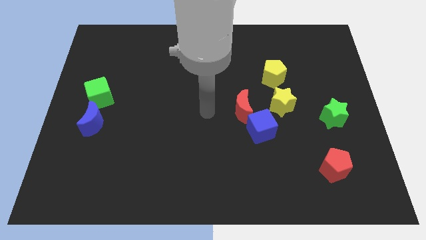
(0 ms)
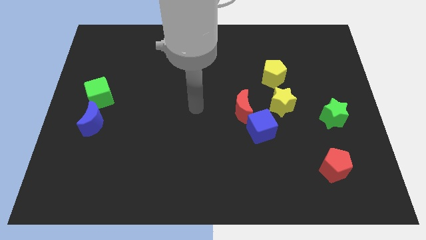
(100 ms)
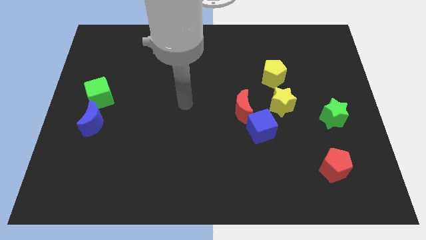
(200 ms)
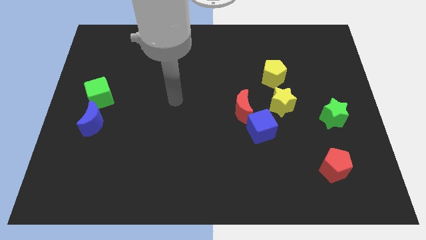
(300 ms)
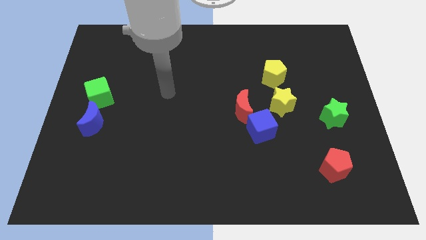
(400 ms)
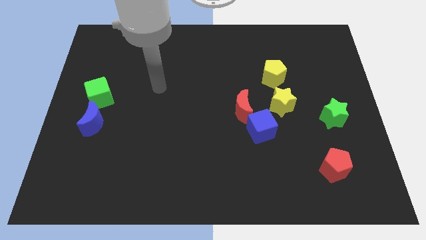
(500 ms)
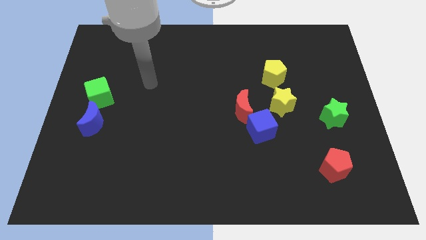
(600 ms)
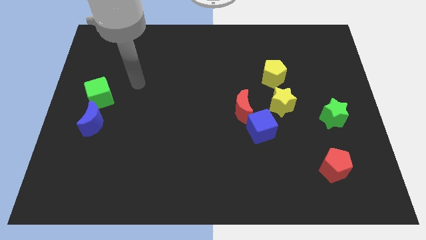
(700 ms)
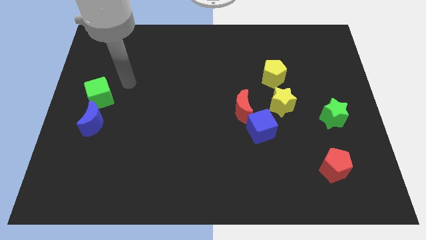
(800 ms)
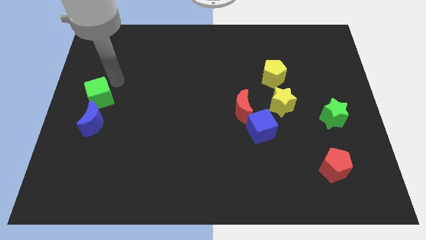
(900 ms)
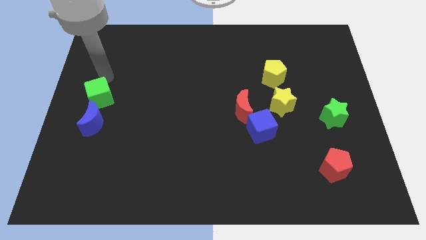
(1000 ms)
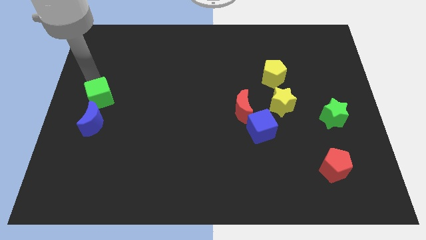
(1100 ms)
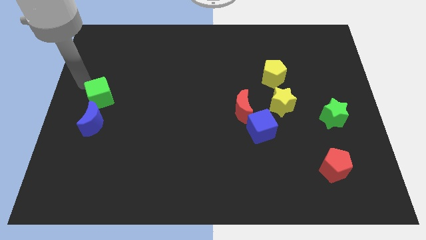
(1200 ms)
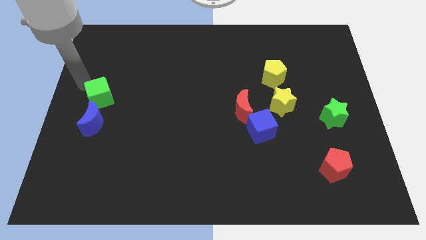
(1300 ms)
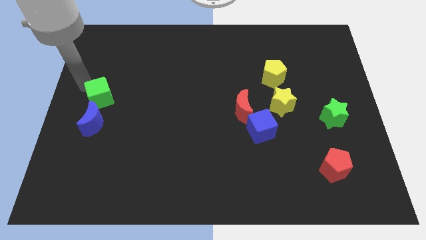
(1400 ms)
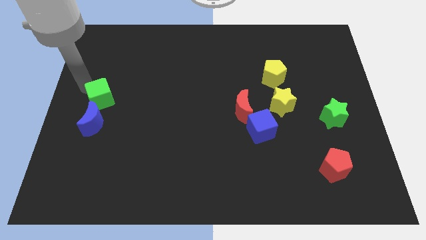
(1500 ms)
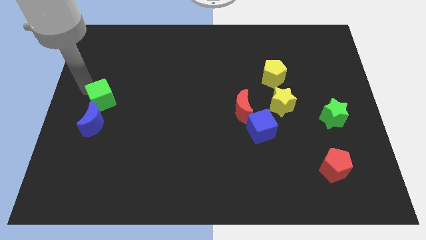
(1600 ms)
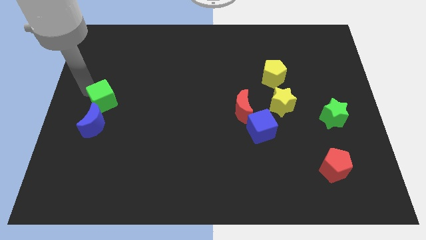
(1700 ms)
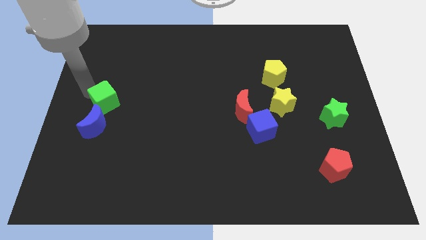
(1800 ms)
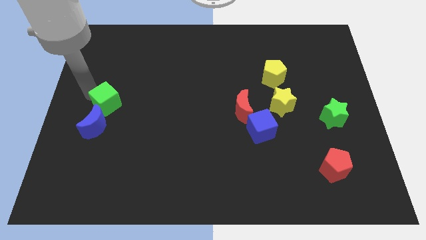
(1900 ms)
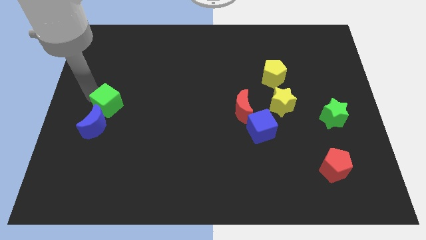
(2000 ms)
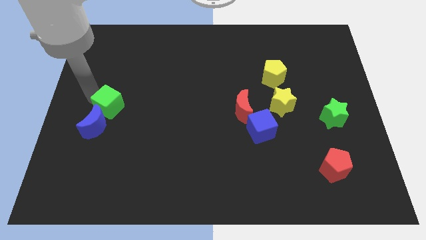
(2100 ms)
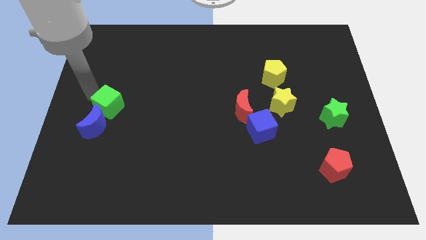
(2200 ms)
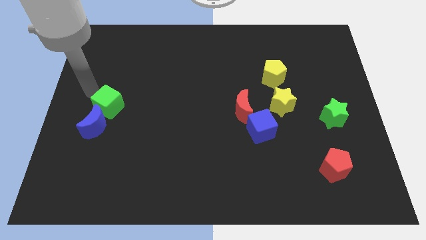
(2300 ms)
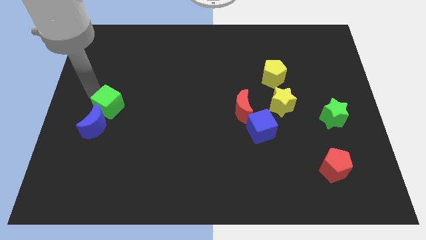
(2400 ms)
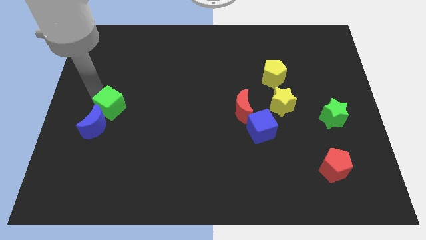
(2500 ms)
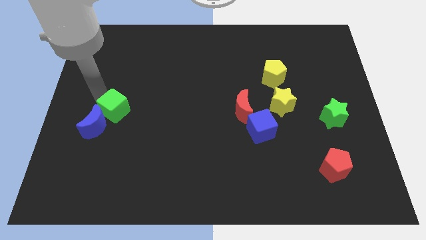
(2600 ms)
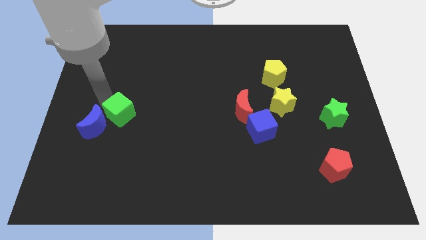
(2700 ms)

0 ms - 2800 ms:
push the green cube down and right diagonally somewhat

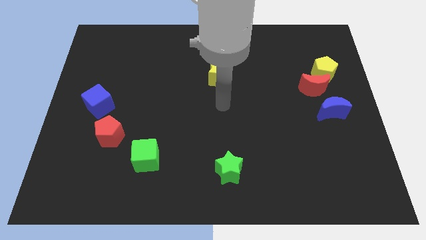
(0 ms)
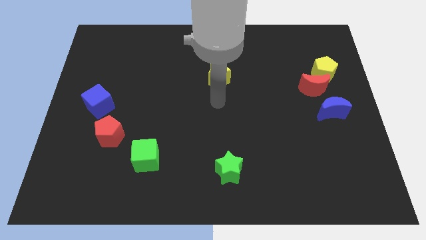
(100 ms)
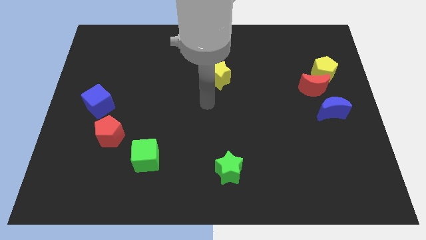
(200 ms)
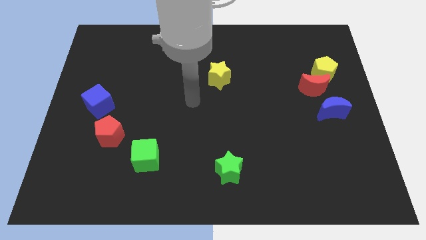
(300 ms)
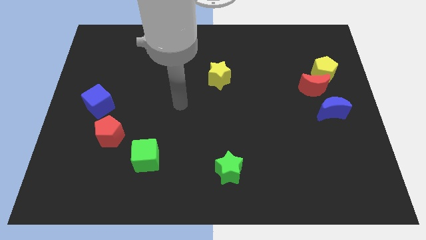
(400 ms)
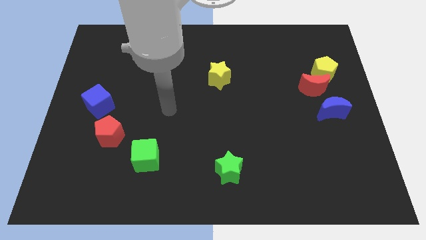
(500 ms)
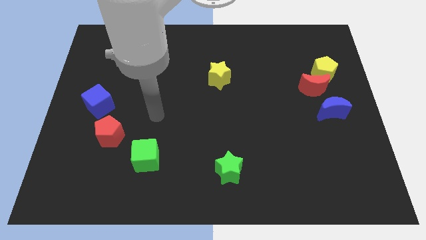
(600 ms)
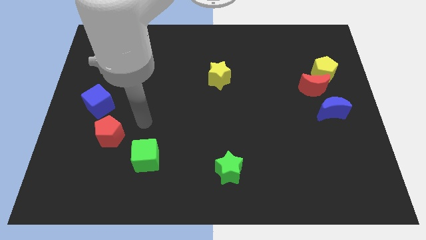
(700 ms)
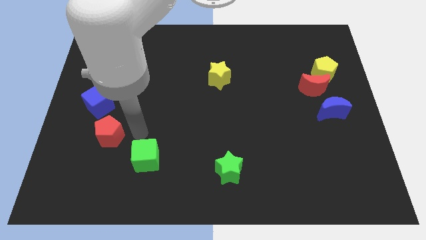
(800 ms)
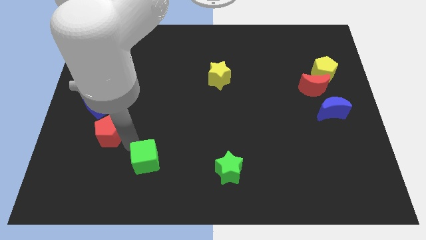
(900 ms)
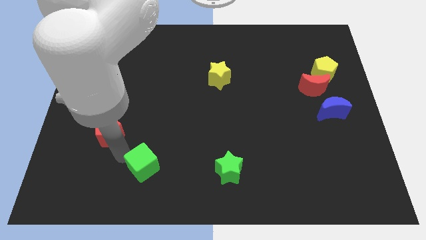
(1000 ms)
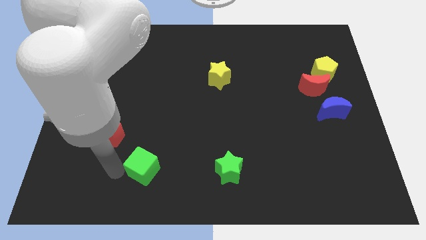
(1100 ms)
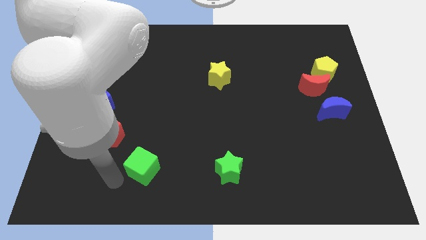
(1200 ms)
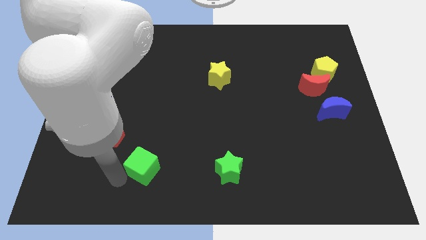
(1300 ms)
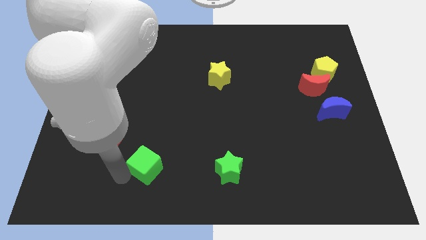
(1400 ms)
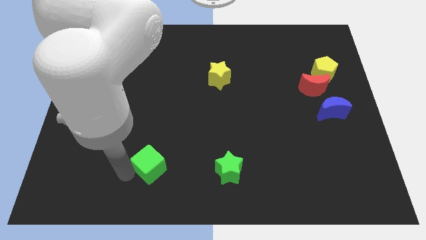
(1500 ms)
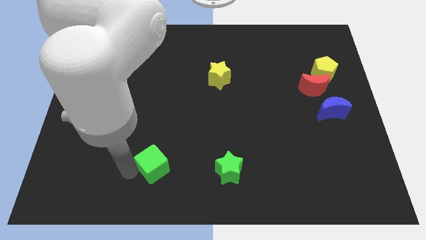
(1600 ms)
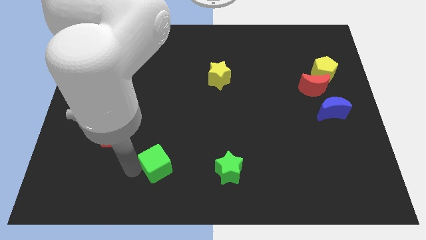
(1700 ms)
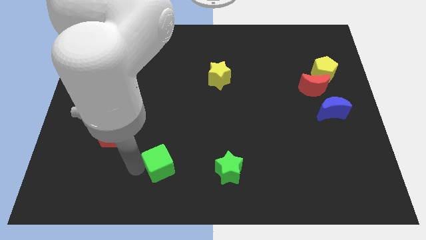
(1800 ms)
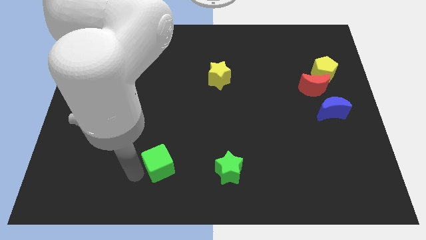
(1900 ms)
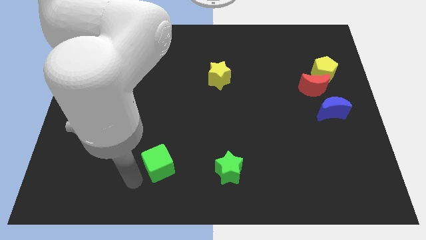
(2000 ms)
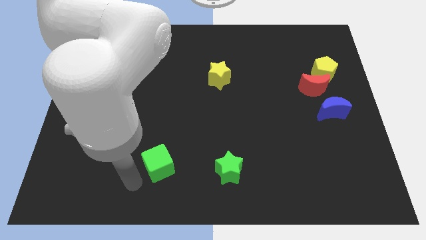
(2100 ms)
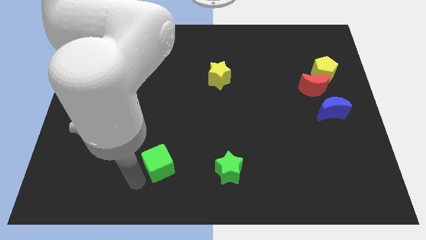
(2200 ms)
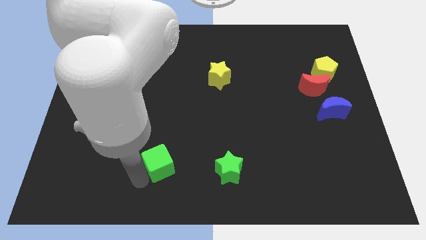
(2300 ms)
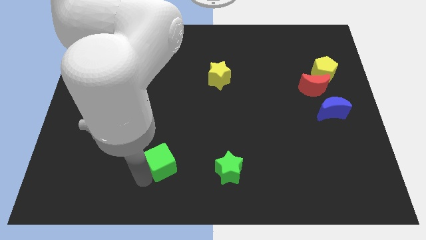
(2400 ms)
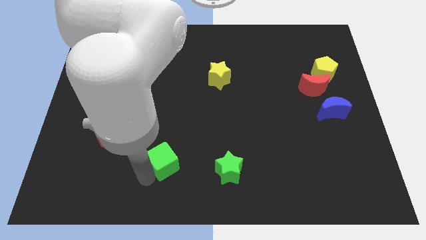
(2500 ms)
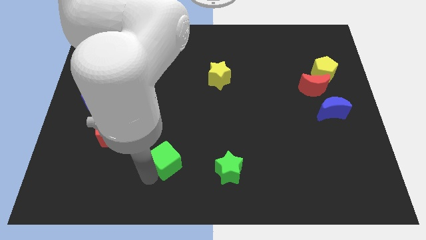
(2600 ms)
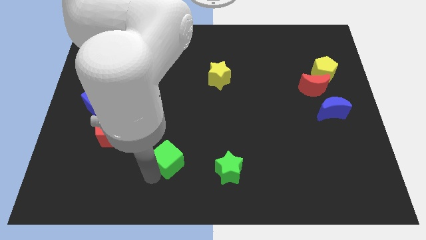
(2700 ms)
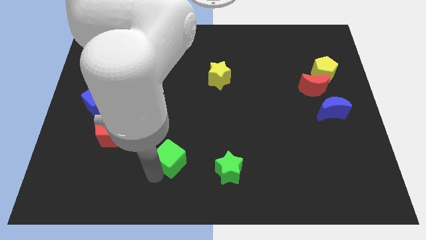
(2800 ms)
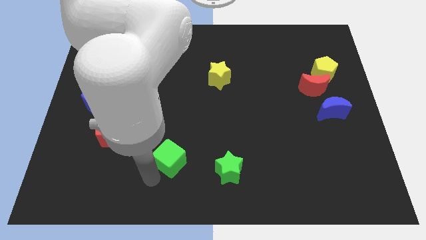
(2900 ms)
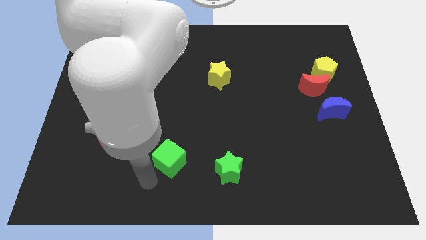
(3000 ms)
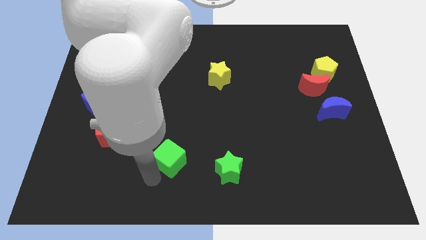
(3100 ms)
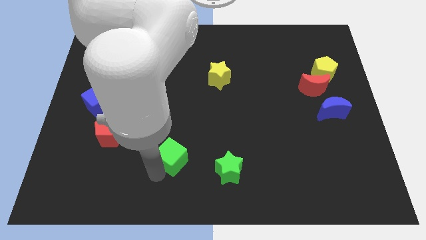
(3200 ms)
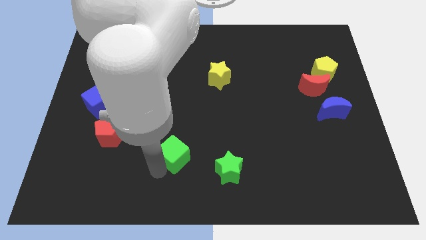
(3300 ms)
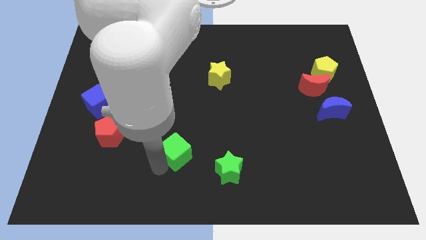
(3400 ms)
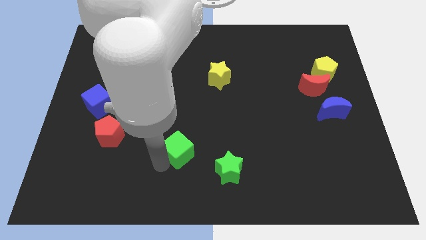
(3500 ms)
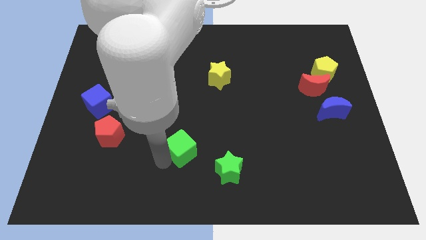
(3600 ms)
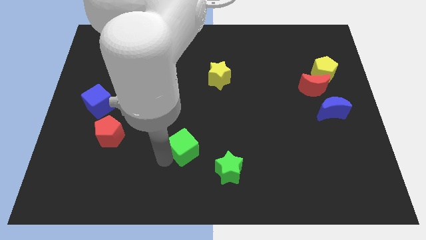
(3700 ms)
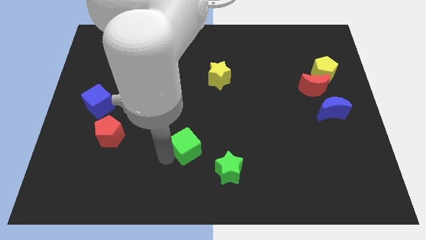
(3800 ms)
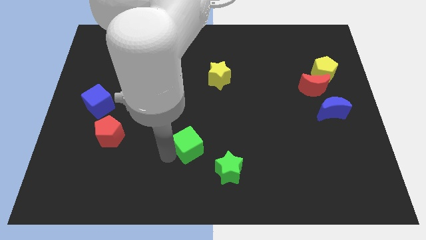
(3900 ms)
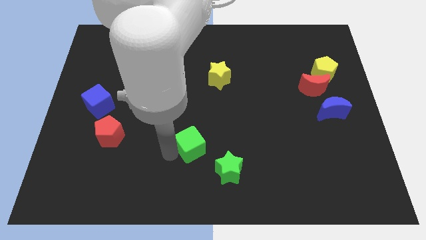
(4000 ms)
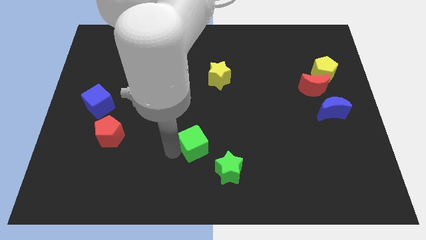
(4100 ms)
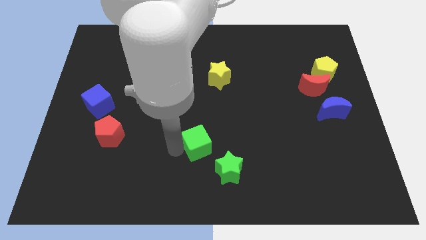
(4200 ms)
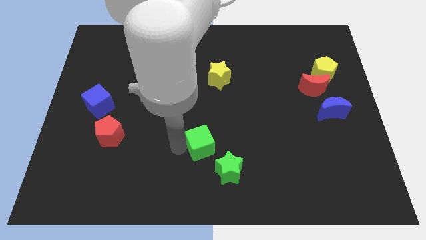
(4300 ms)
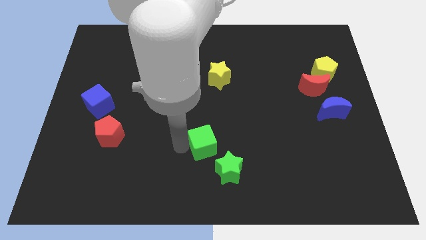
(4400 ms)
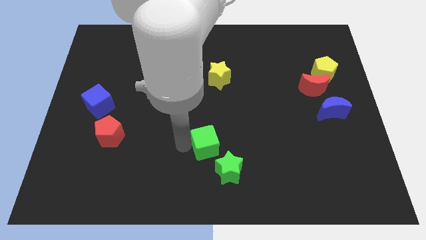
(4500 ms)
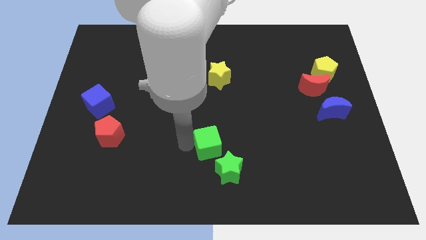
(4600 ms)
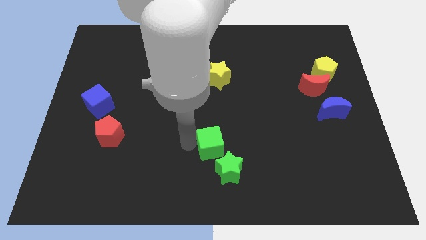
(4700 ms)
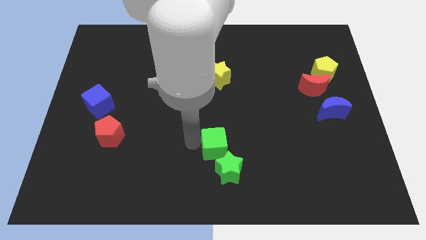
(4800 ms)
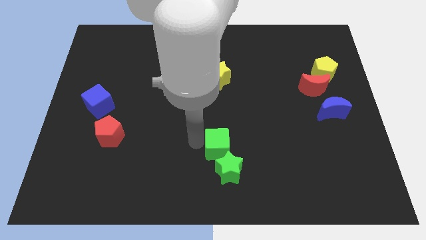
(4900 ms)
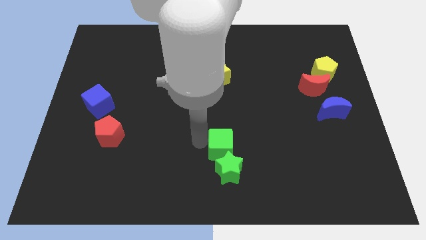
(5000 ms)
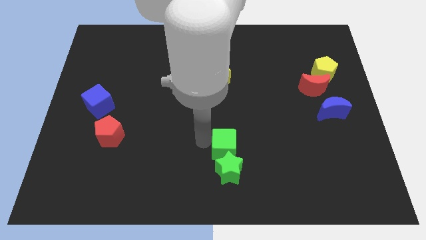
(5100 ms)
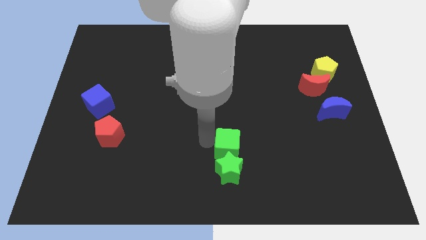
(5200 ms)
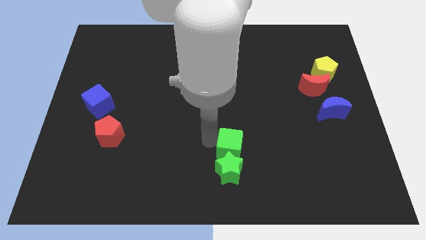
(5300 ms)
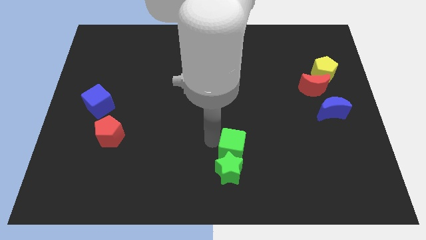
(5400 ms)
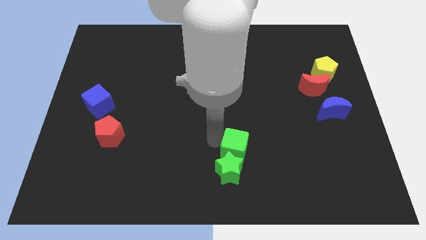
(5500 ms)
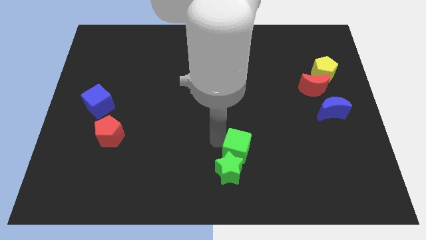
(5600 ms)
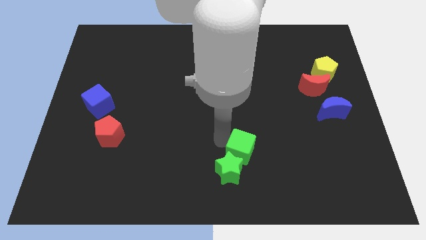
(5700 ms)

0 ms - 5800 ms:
slide the green cube right
